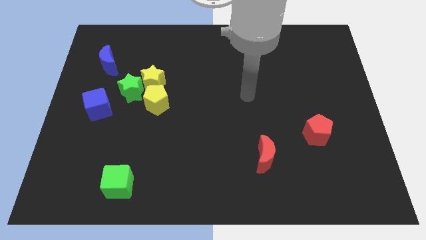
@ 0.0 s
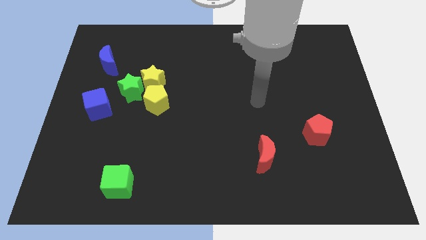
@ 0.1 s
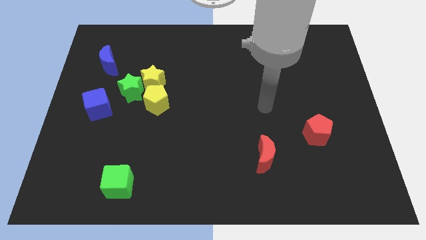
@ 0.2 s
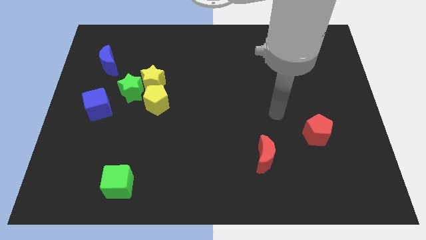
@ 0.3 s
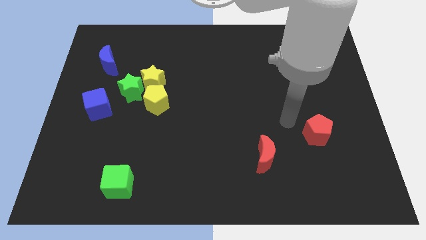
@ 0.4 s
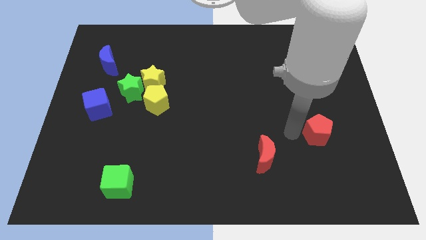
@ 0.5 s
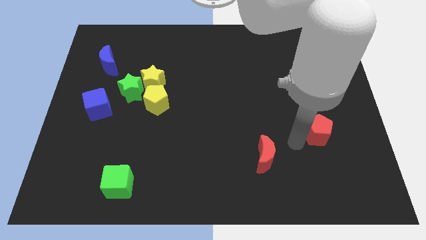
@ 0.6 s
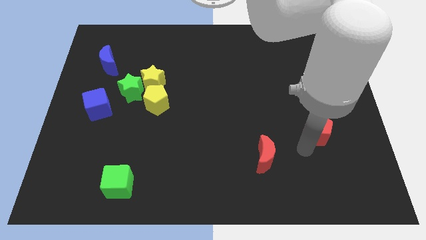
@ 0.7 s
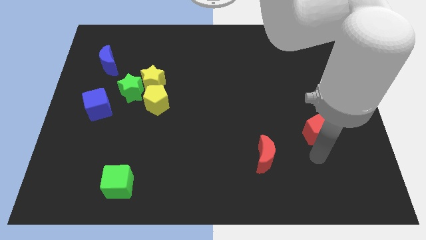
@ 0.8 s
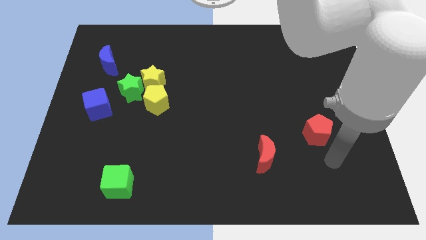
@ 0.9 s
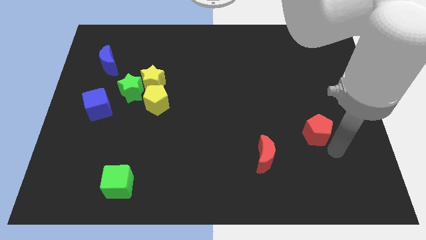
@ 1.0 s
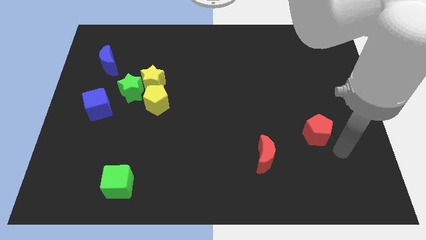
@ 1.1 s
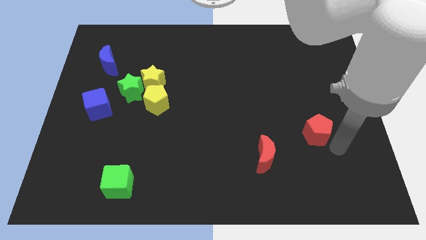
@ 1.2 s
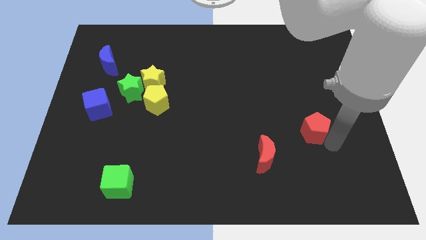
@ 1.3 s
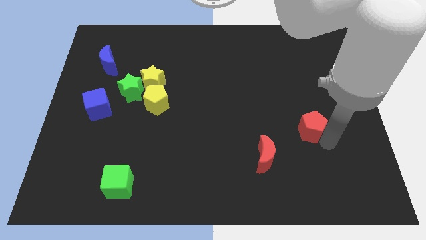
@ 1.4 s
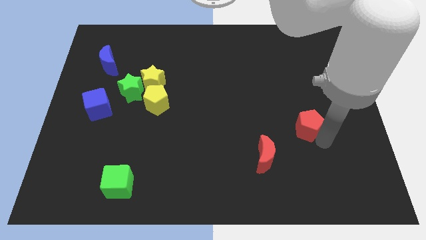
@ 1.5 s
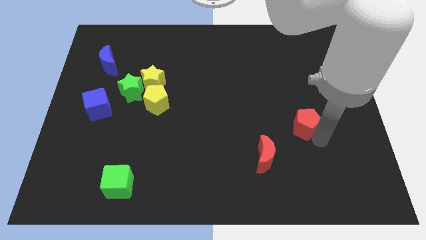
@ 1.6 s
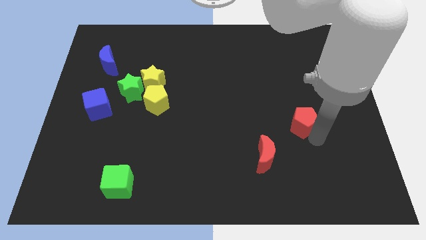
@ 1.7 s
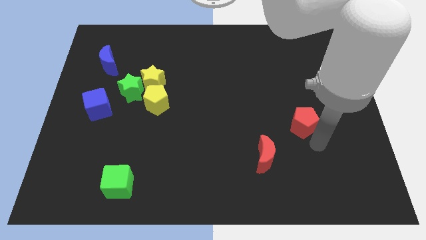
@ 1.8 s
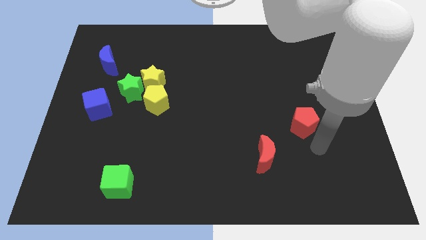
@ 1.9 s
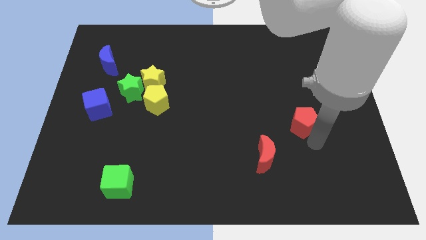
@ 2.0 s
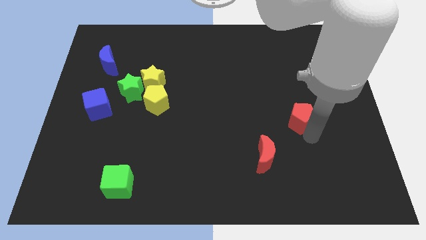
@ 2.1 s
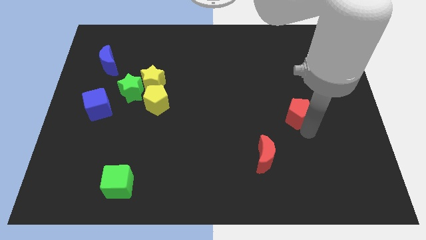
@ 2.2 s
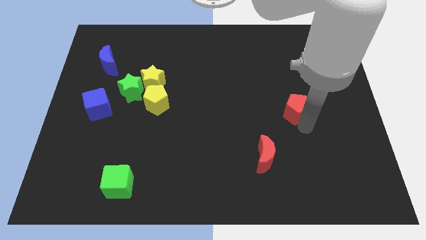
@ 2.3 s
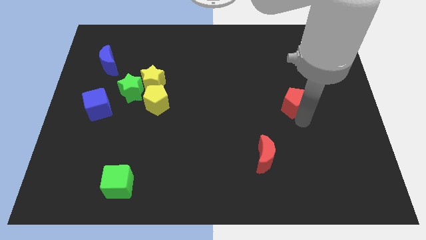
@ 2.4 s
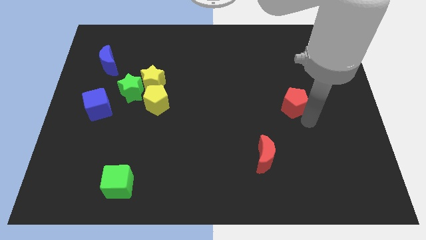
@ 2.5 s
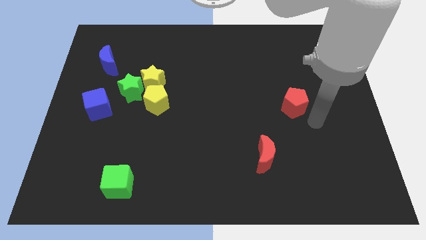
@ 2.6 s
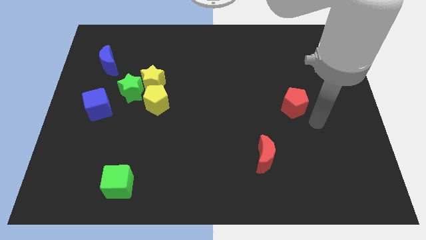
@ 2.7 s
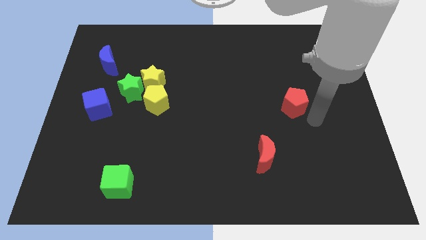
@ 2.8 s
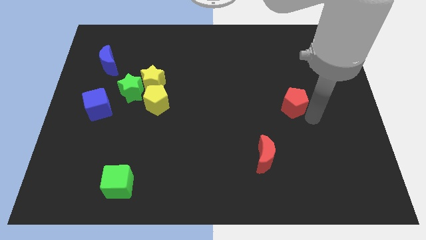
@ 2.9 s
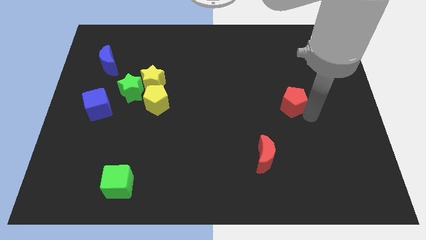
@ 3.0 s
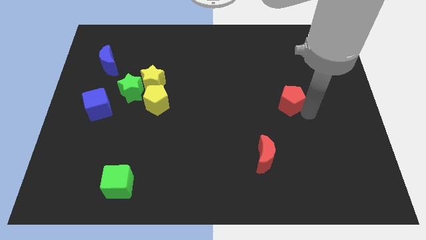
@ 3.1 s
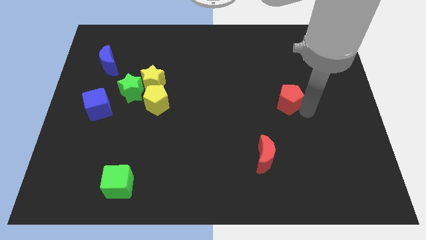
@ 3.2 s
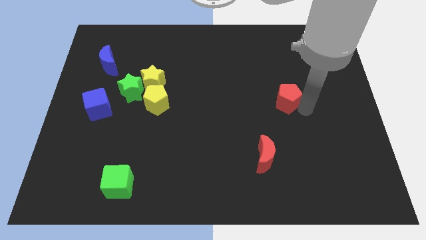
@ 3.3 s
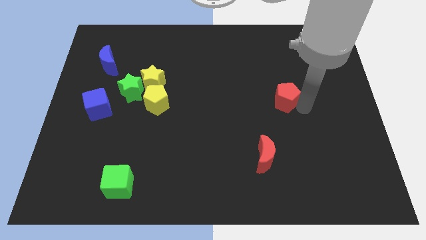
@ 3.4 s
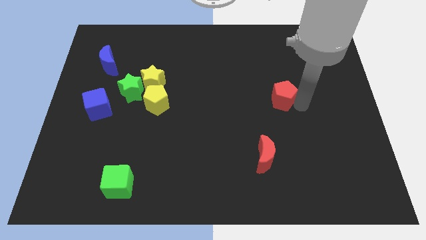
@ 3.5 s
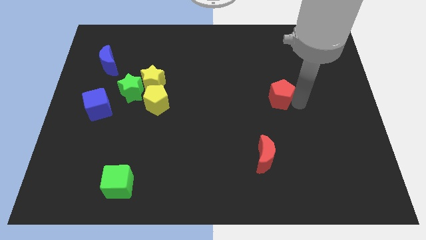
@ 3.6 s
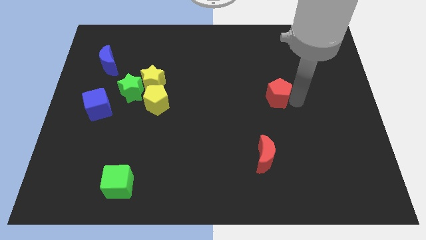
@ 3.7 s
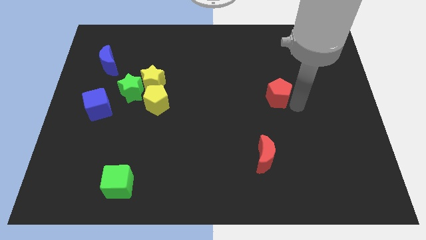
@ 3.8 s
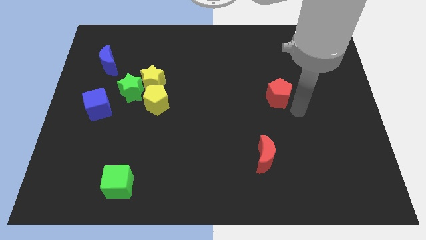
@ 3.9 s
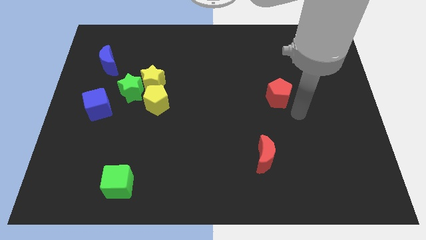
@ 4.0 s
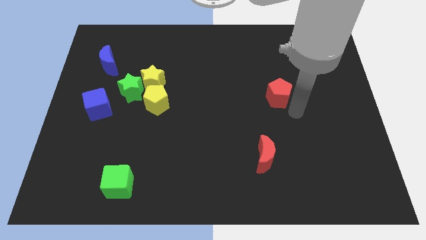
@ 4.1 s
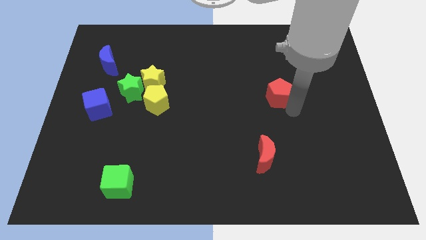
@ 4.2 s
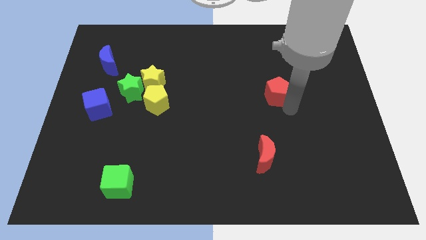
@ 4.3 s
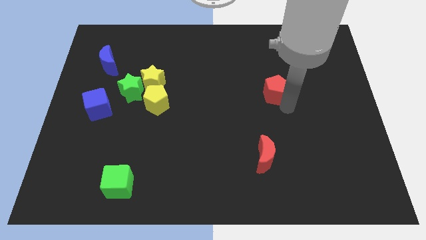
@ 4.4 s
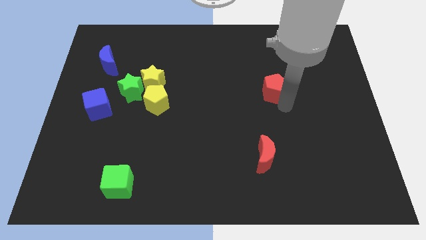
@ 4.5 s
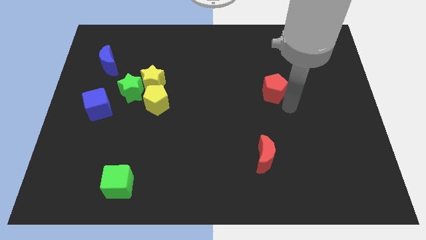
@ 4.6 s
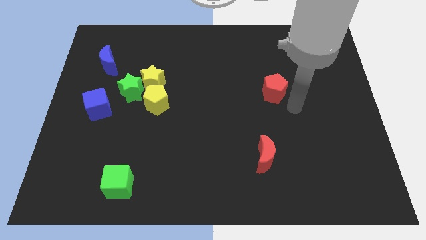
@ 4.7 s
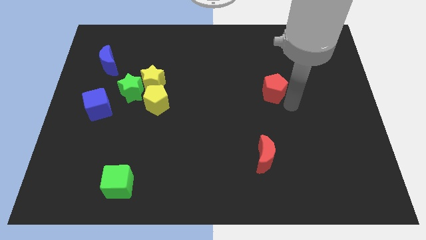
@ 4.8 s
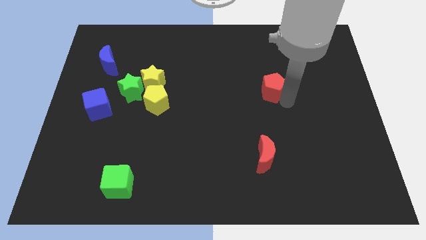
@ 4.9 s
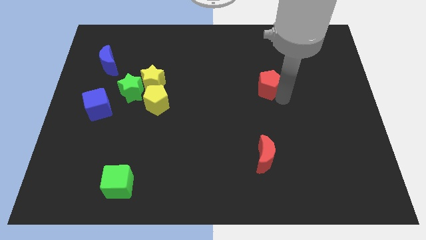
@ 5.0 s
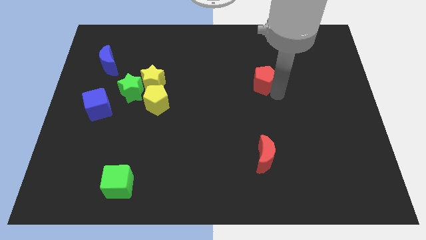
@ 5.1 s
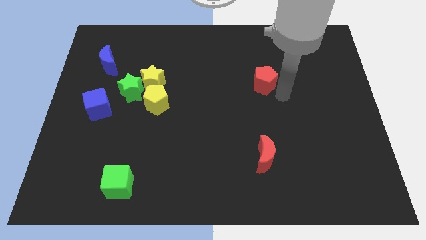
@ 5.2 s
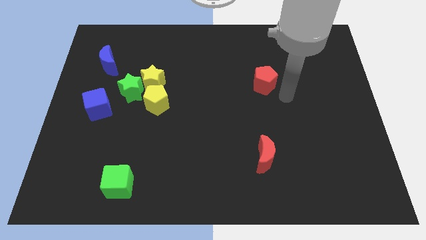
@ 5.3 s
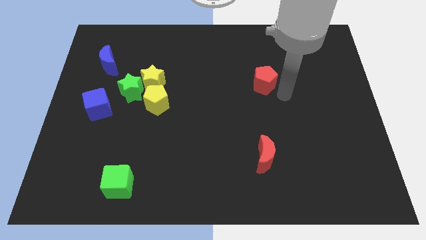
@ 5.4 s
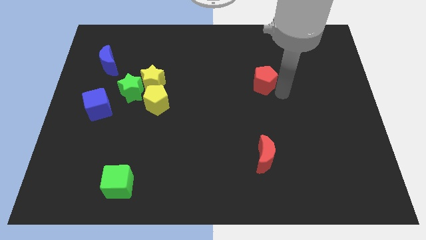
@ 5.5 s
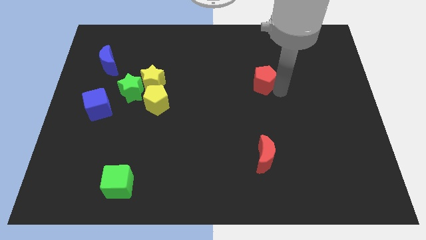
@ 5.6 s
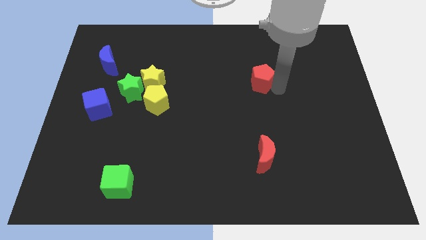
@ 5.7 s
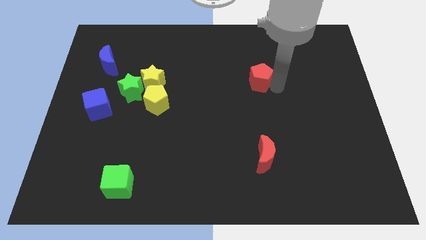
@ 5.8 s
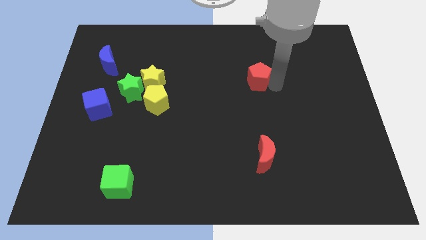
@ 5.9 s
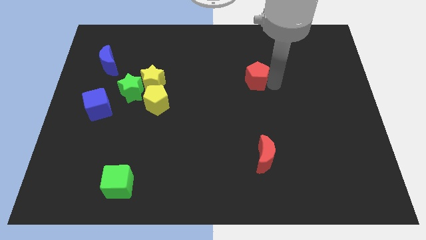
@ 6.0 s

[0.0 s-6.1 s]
move the red pentagon diagonally upwards and to the left

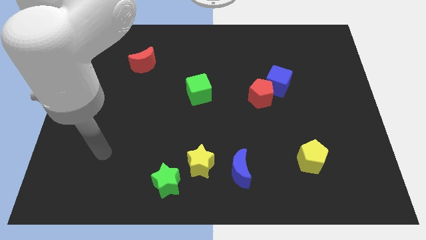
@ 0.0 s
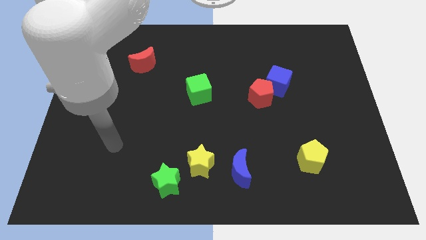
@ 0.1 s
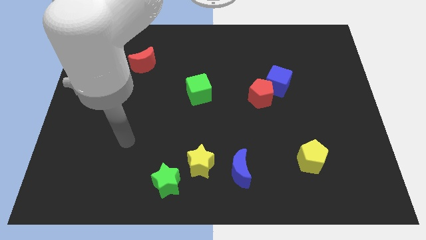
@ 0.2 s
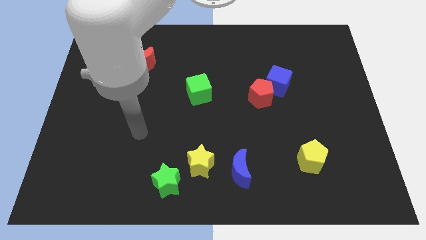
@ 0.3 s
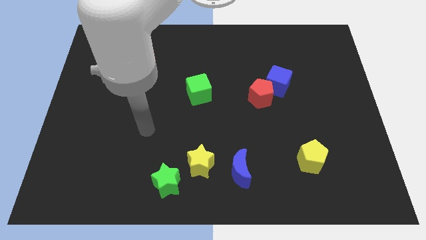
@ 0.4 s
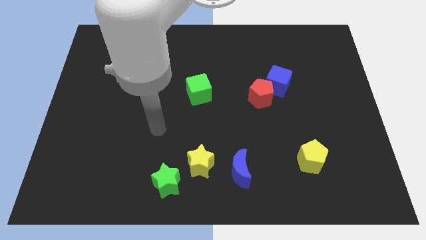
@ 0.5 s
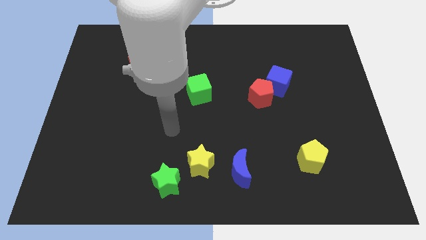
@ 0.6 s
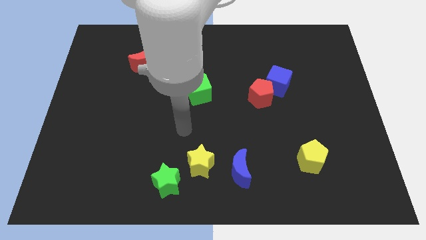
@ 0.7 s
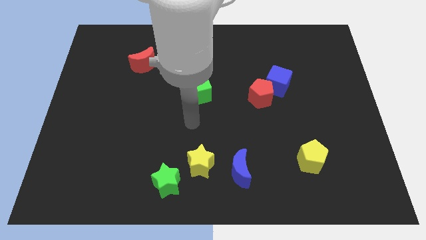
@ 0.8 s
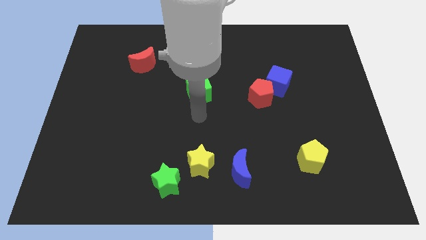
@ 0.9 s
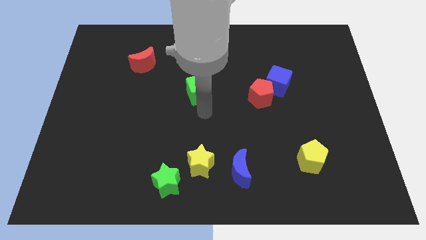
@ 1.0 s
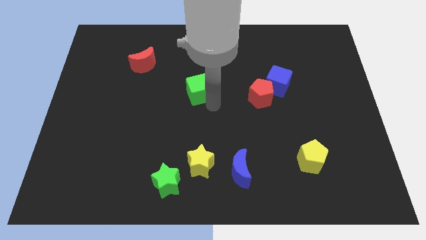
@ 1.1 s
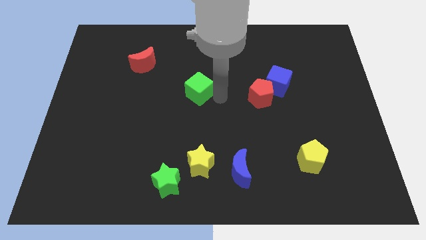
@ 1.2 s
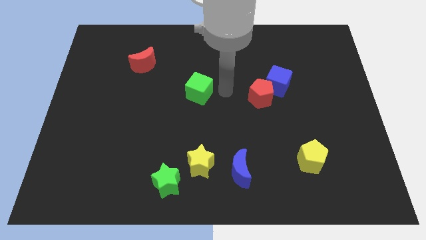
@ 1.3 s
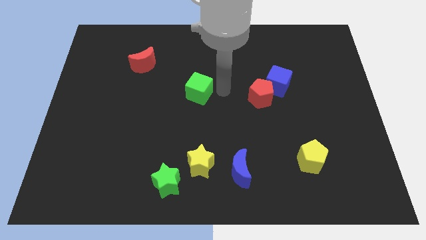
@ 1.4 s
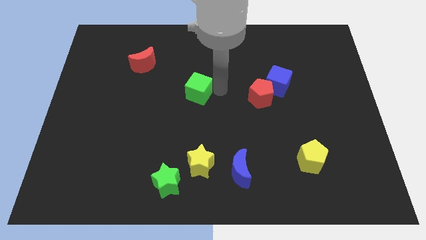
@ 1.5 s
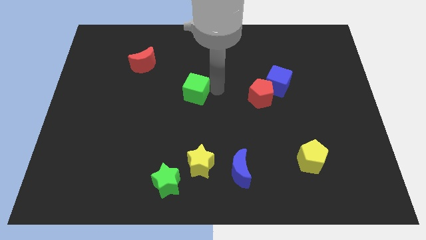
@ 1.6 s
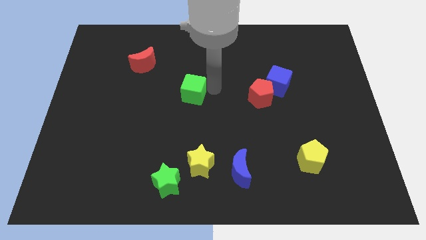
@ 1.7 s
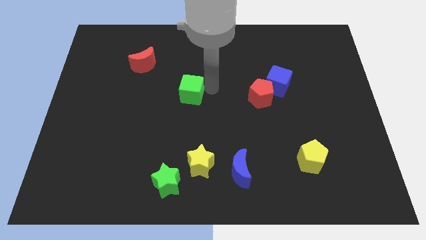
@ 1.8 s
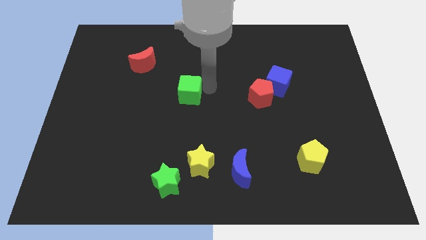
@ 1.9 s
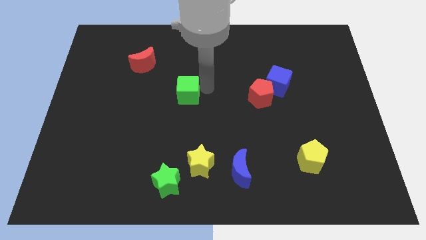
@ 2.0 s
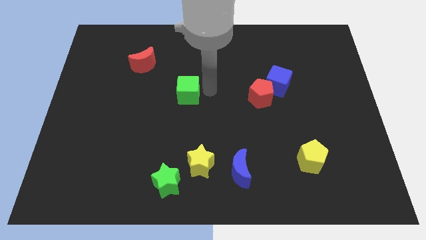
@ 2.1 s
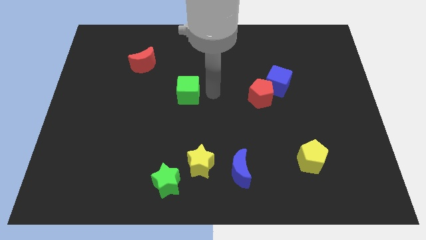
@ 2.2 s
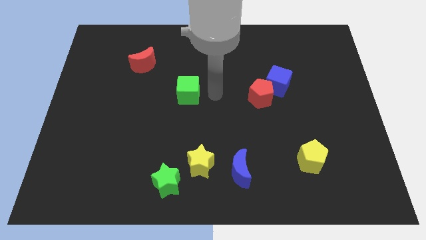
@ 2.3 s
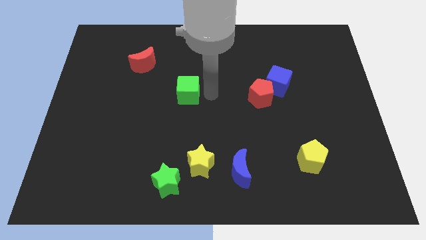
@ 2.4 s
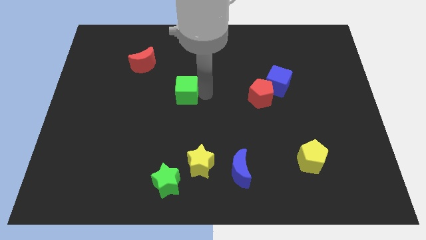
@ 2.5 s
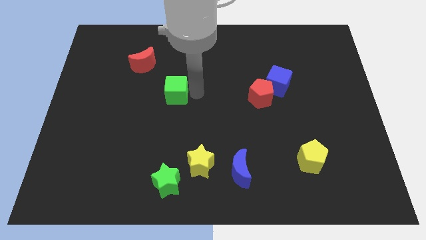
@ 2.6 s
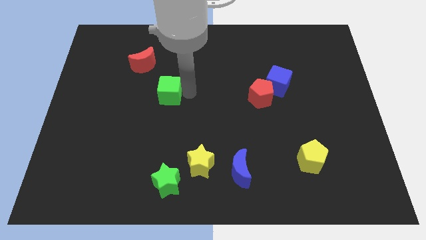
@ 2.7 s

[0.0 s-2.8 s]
move the green cube to the left slightly
